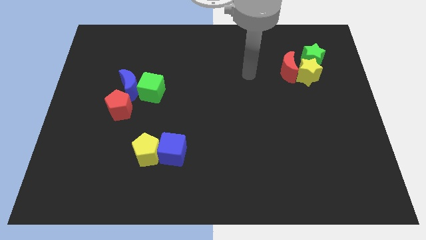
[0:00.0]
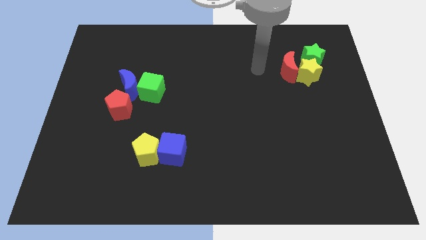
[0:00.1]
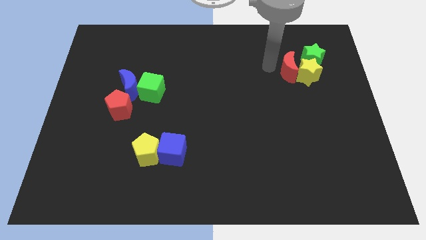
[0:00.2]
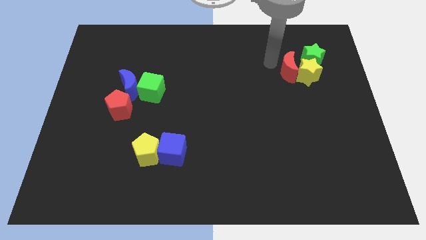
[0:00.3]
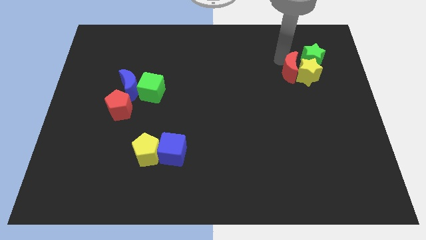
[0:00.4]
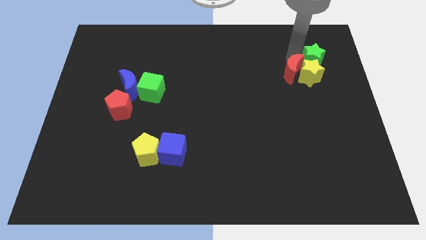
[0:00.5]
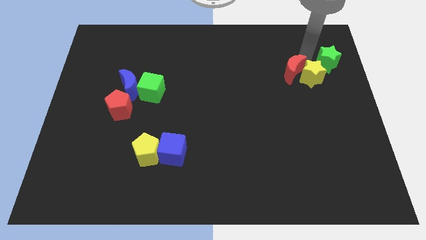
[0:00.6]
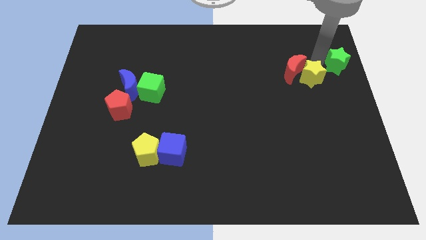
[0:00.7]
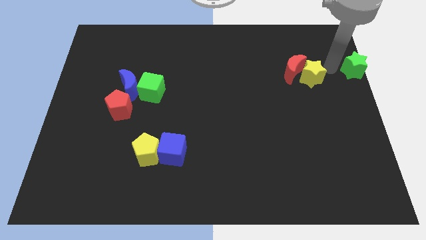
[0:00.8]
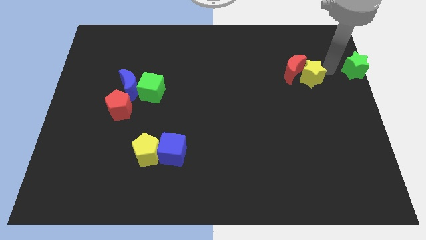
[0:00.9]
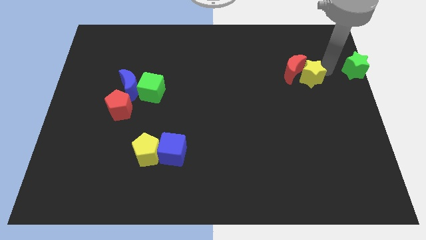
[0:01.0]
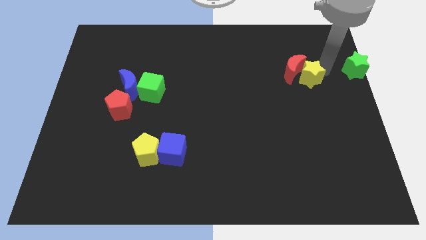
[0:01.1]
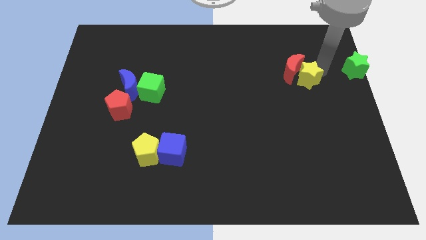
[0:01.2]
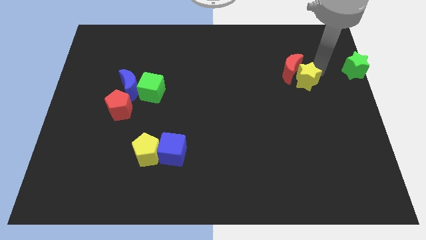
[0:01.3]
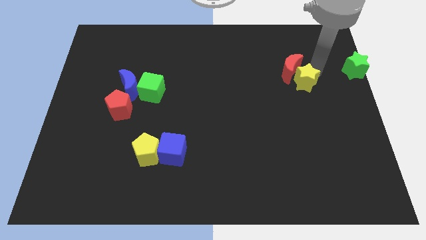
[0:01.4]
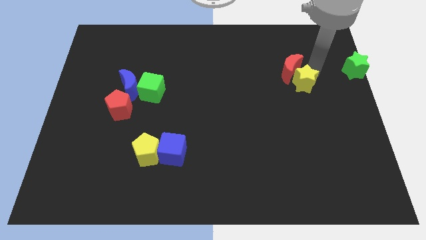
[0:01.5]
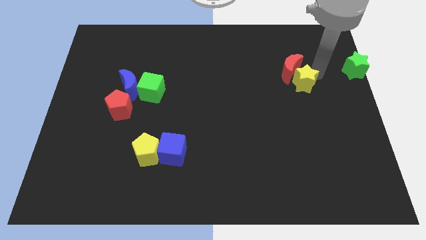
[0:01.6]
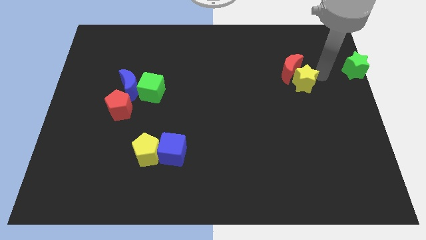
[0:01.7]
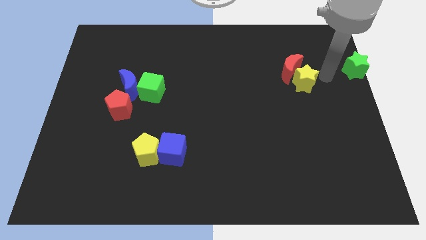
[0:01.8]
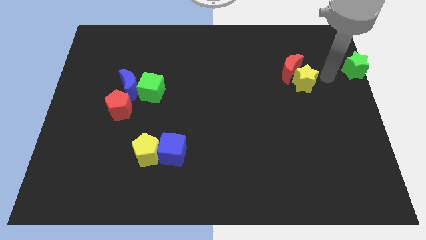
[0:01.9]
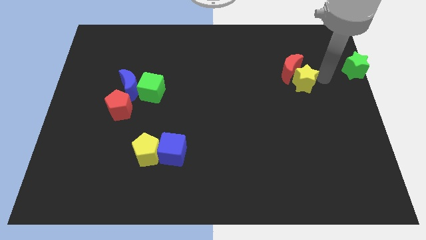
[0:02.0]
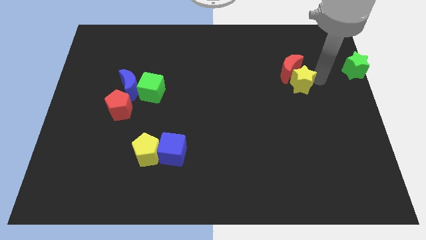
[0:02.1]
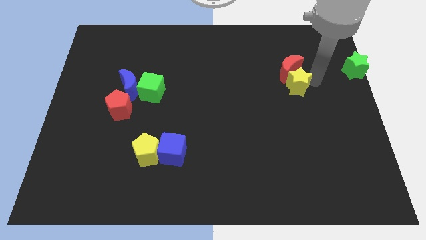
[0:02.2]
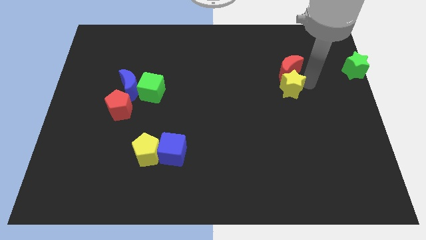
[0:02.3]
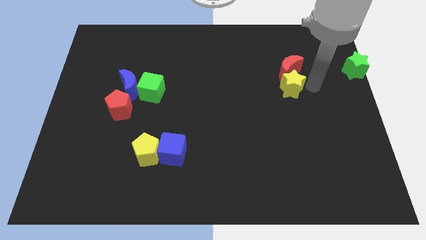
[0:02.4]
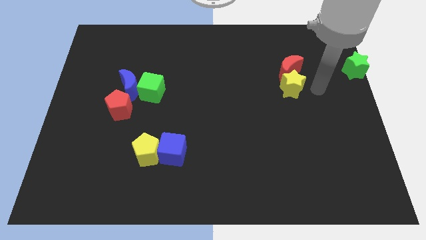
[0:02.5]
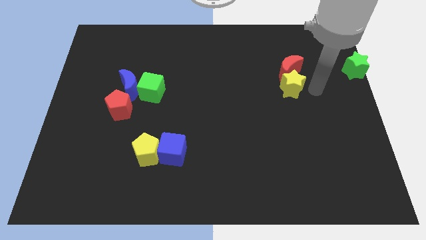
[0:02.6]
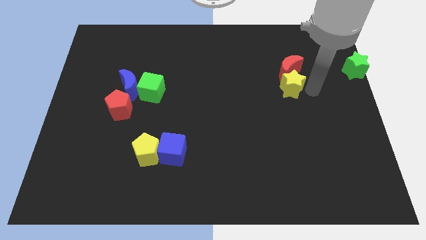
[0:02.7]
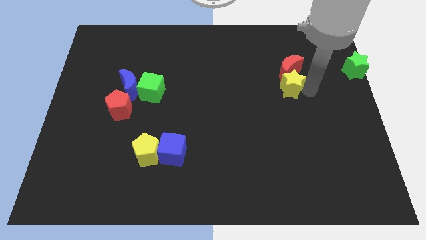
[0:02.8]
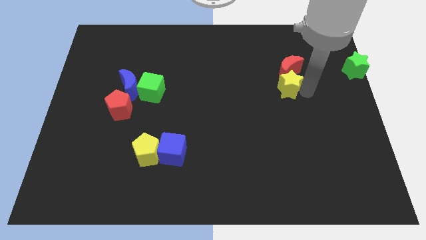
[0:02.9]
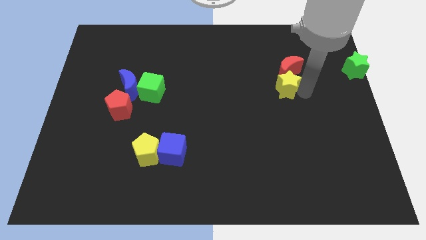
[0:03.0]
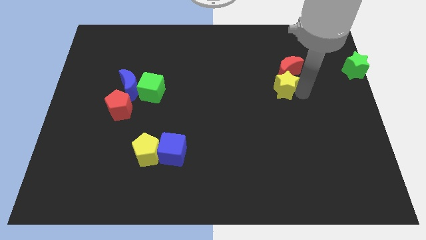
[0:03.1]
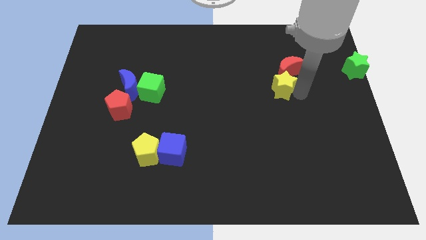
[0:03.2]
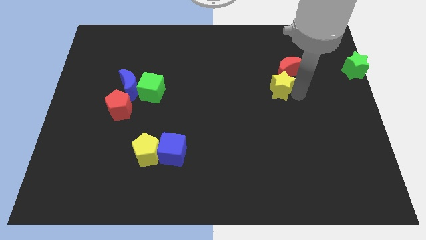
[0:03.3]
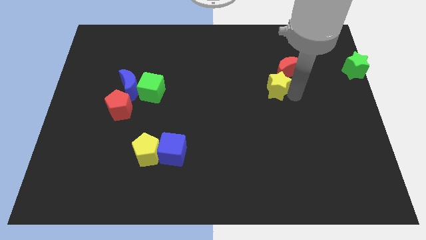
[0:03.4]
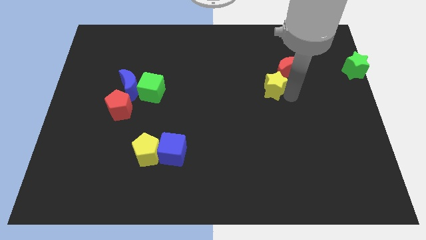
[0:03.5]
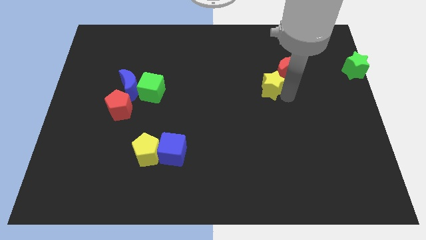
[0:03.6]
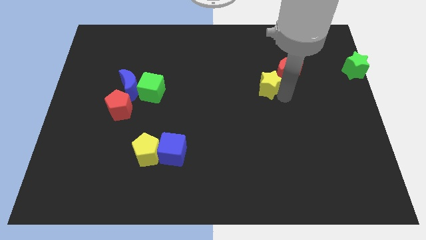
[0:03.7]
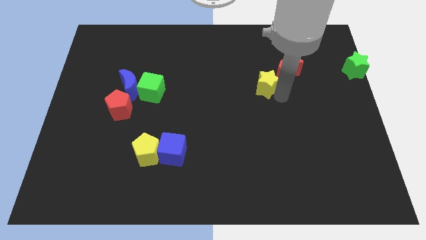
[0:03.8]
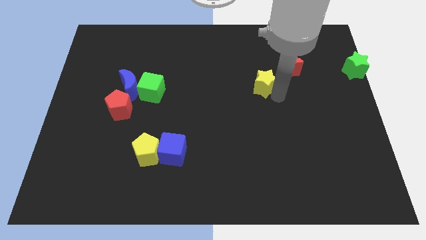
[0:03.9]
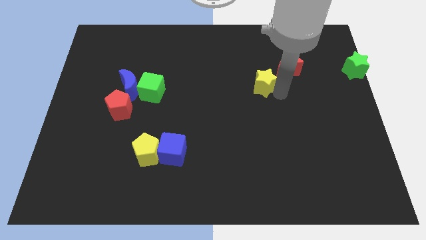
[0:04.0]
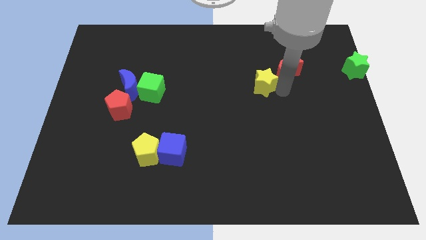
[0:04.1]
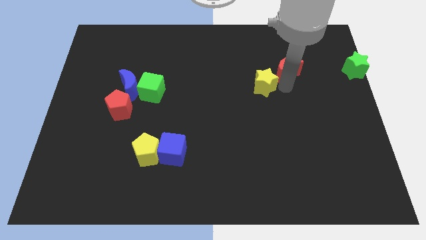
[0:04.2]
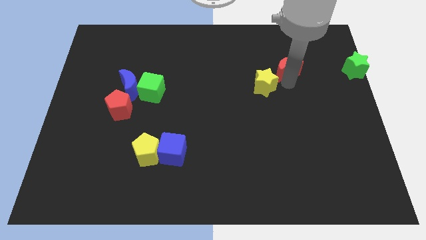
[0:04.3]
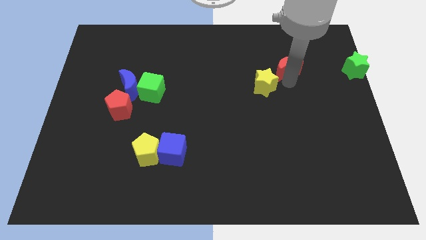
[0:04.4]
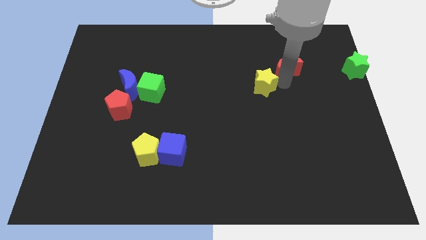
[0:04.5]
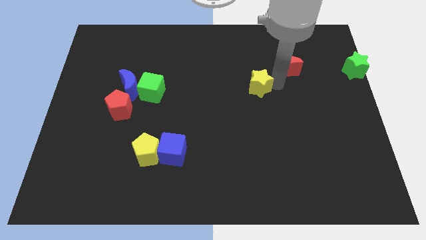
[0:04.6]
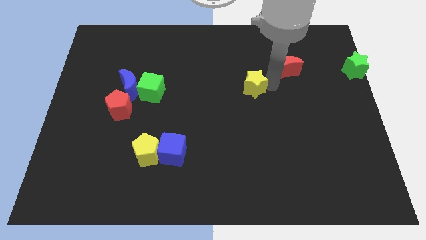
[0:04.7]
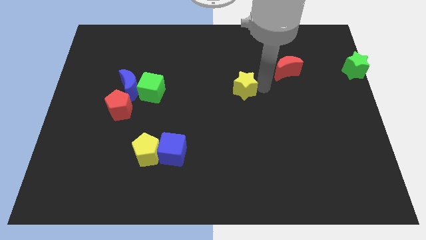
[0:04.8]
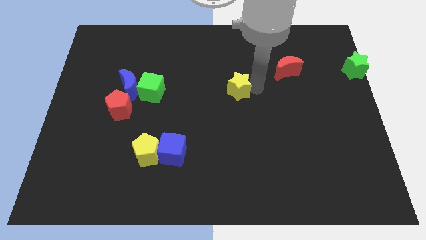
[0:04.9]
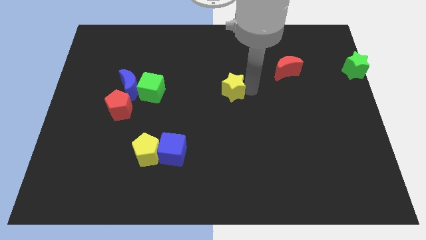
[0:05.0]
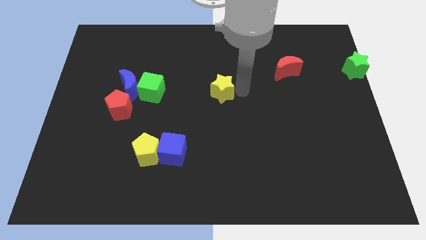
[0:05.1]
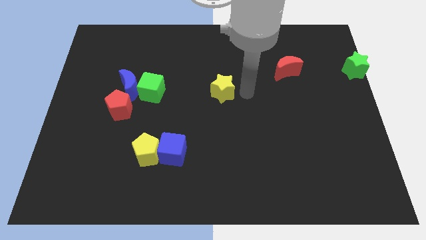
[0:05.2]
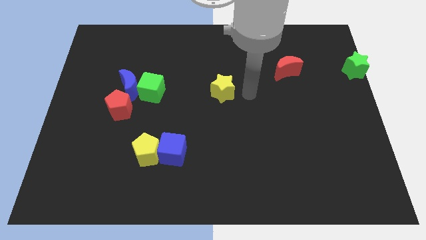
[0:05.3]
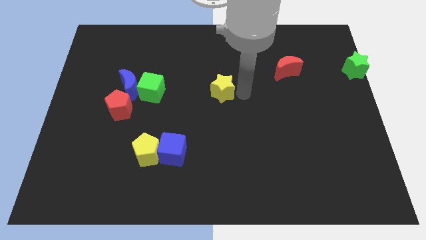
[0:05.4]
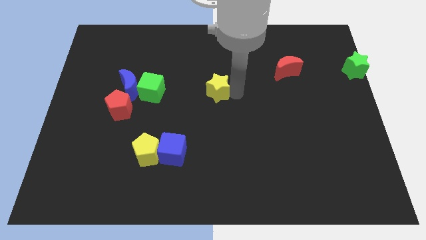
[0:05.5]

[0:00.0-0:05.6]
push the yellow star to the right side of the green cube

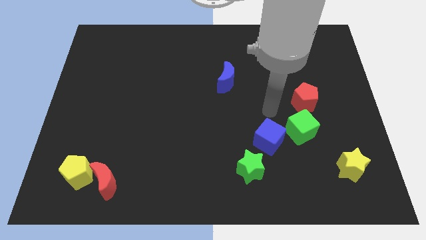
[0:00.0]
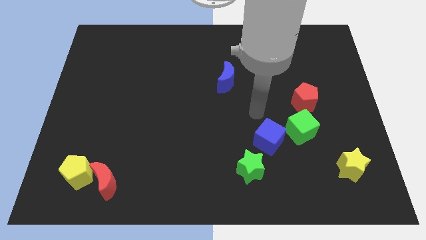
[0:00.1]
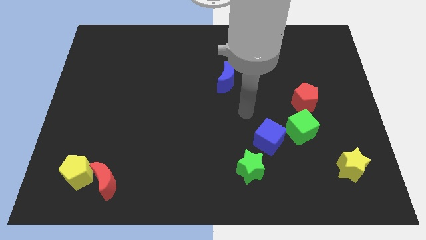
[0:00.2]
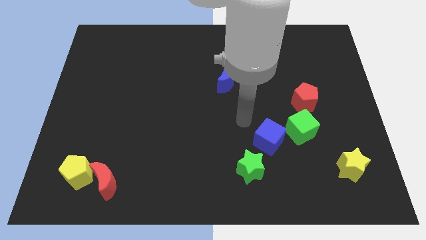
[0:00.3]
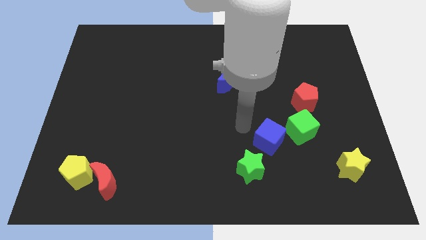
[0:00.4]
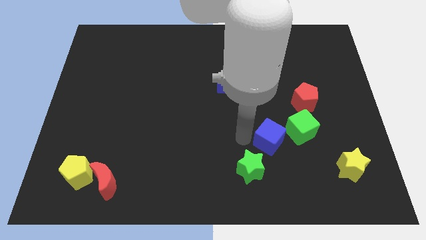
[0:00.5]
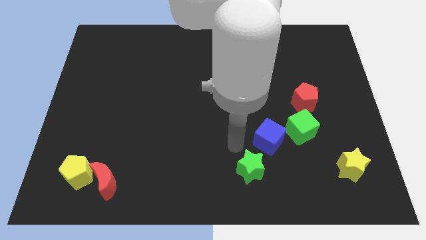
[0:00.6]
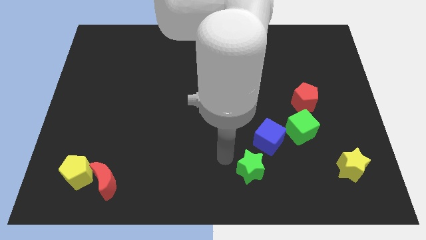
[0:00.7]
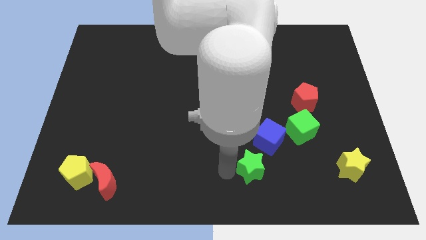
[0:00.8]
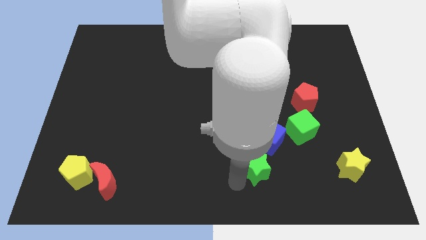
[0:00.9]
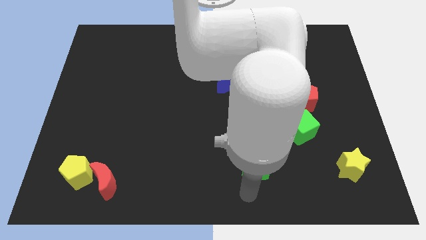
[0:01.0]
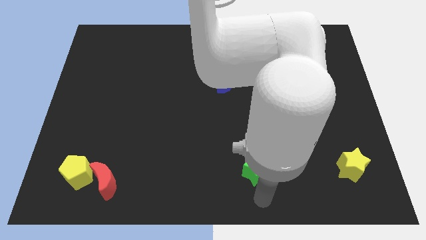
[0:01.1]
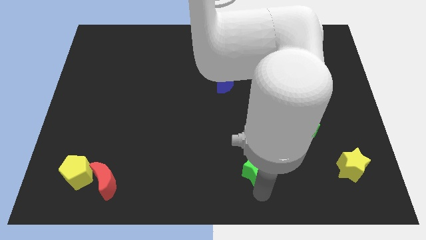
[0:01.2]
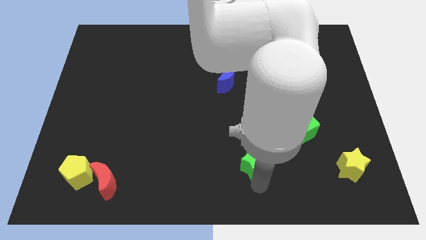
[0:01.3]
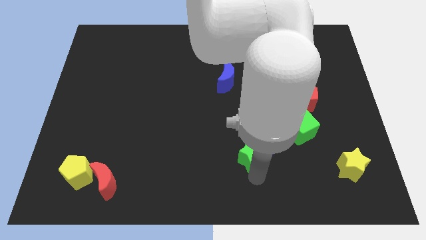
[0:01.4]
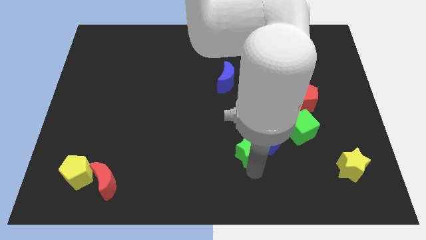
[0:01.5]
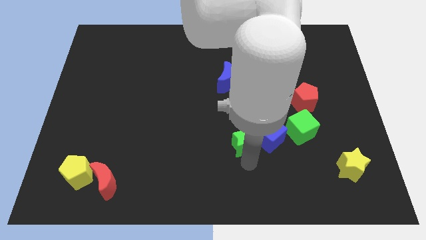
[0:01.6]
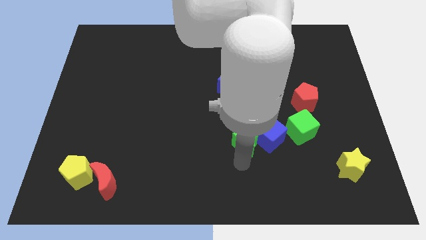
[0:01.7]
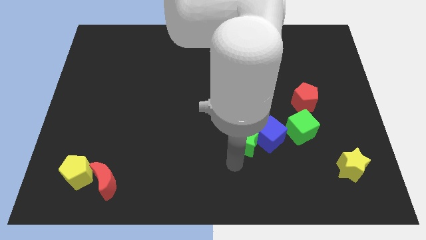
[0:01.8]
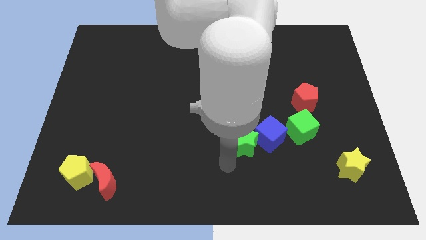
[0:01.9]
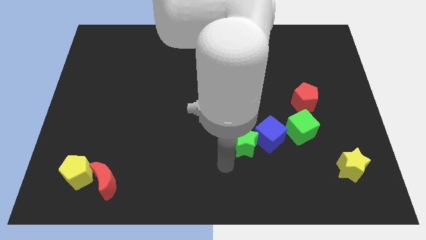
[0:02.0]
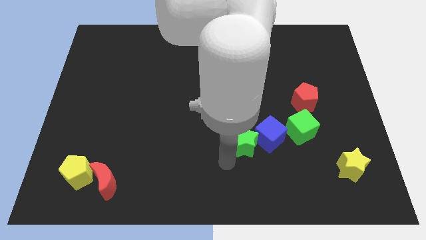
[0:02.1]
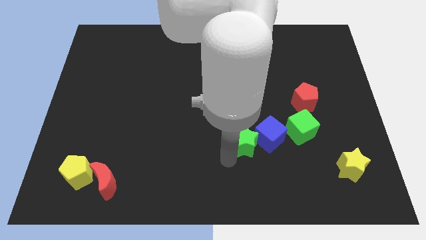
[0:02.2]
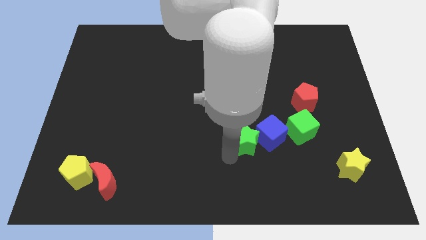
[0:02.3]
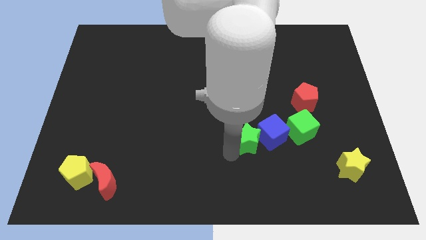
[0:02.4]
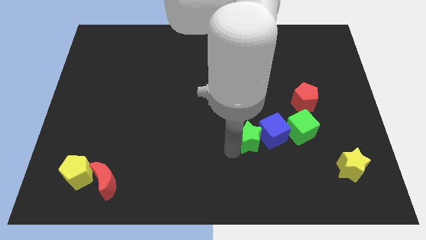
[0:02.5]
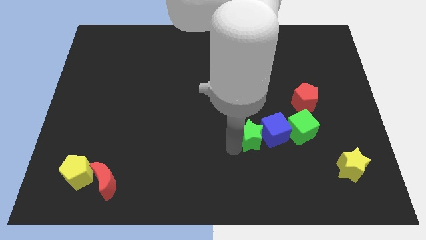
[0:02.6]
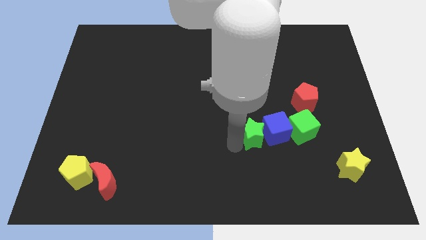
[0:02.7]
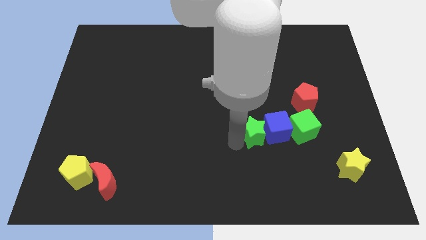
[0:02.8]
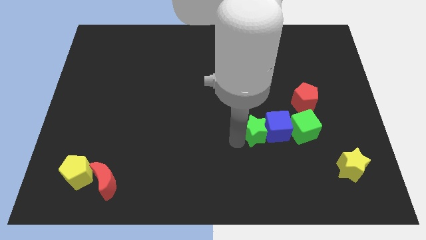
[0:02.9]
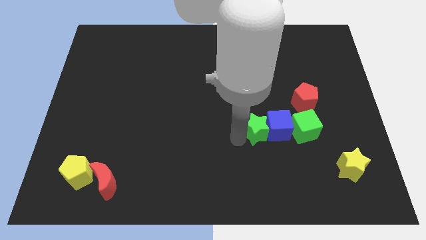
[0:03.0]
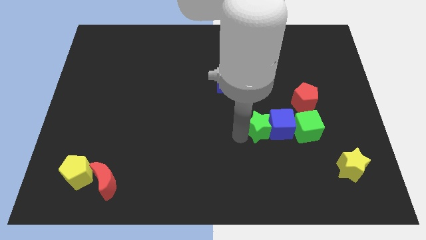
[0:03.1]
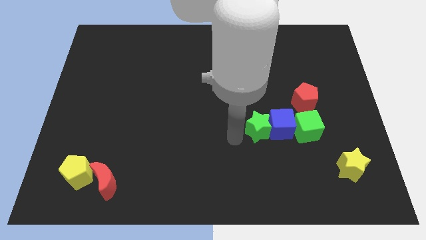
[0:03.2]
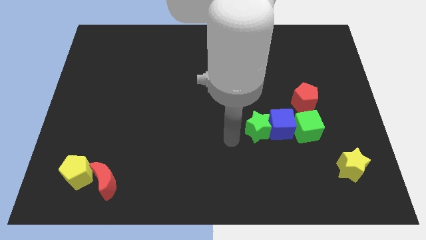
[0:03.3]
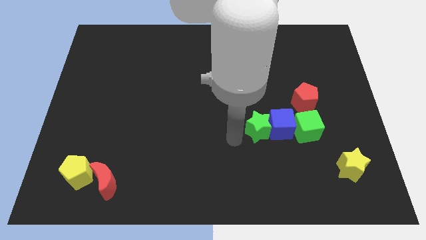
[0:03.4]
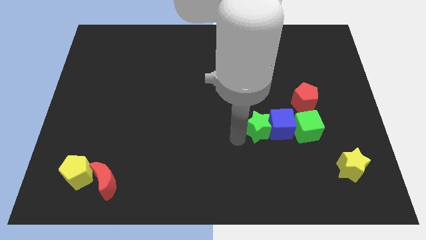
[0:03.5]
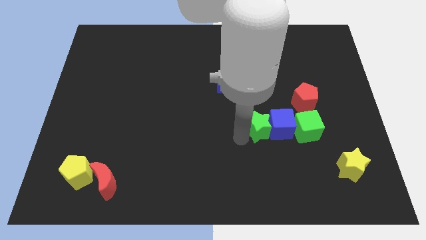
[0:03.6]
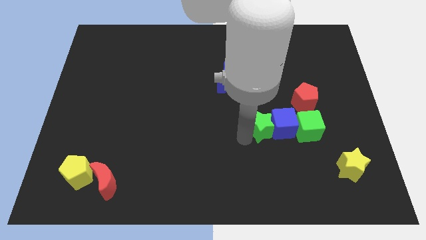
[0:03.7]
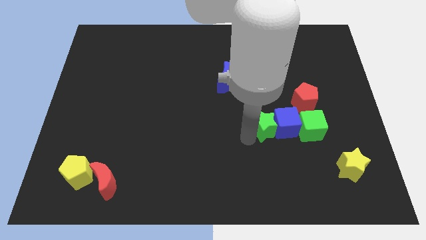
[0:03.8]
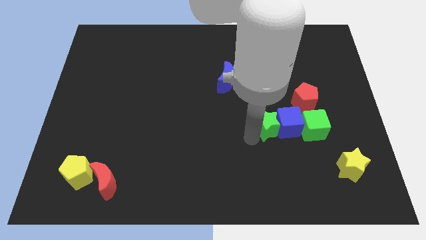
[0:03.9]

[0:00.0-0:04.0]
move the green star to the bottom left of the red pentagon
